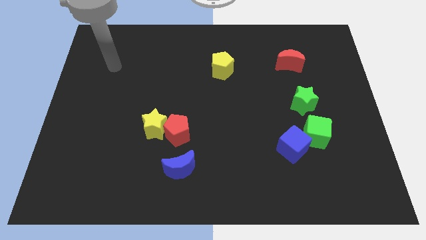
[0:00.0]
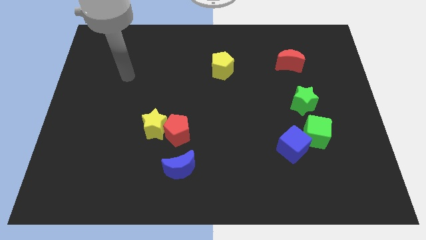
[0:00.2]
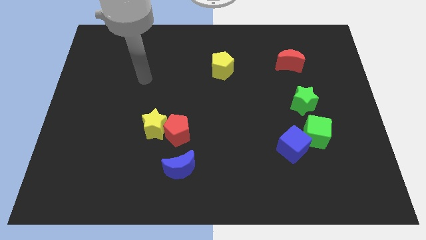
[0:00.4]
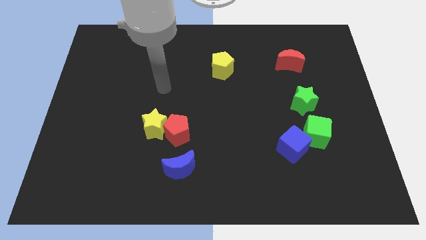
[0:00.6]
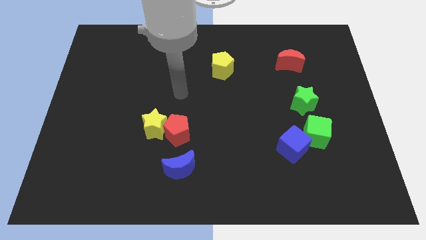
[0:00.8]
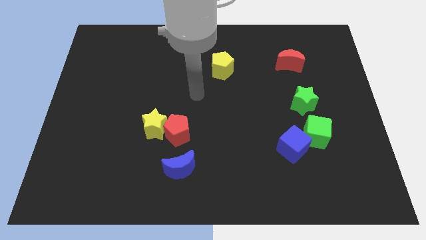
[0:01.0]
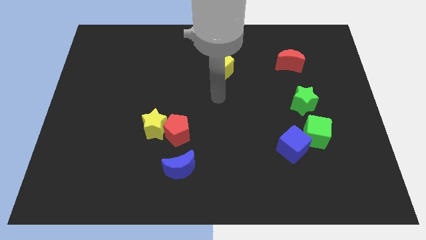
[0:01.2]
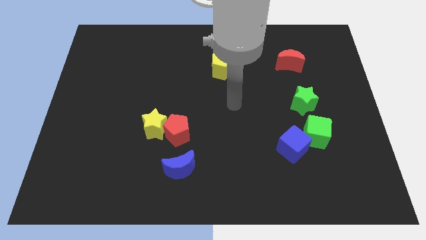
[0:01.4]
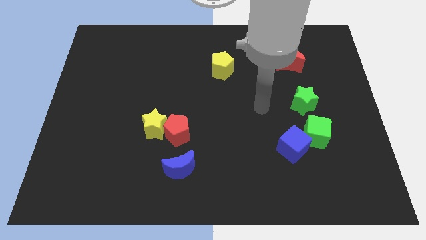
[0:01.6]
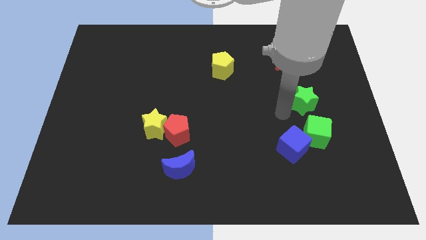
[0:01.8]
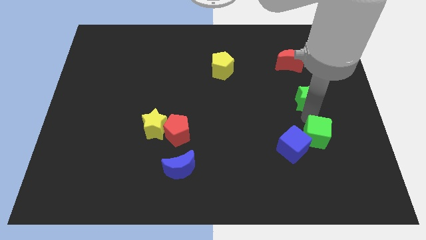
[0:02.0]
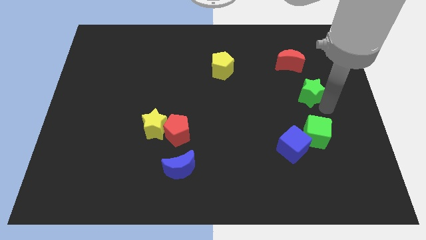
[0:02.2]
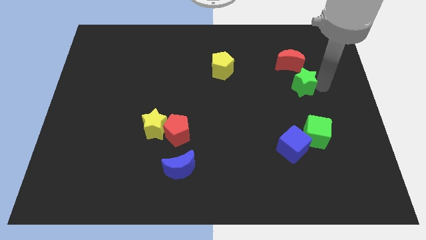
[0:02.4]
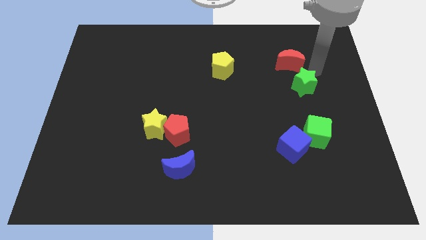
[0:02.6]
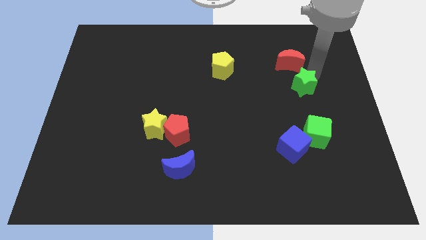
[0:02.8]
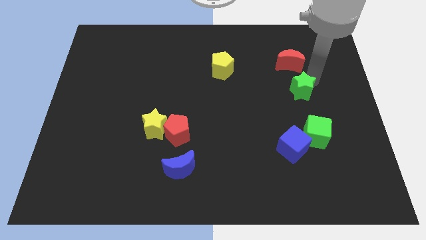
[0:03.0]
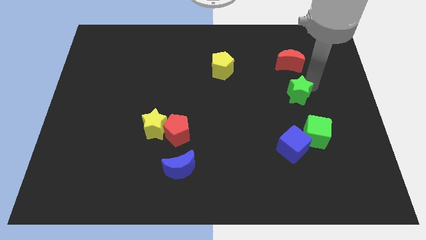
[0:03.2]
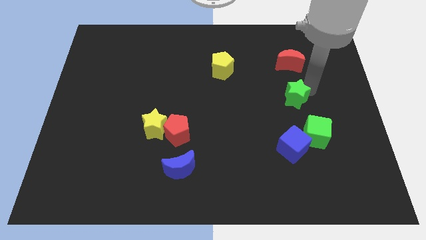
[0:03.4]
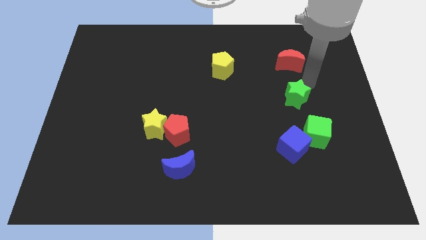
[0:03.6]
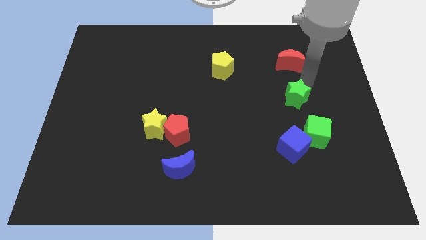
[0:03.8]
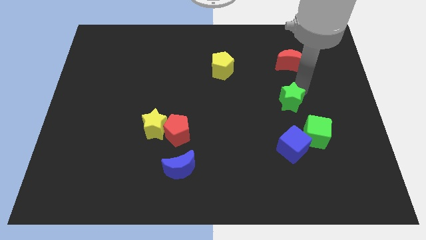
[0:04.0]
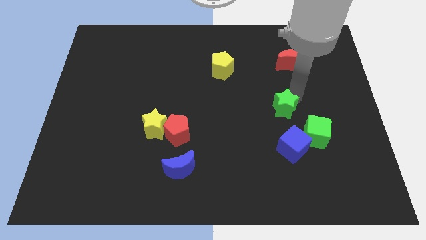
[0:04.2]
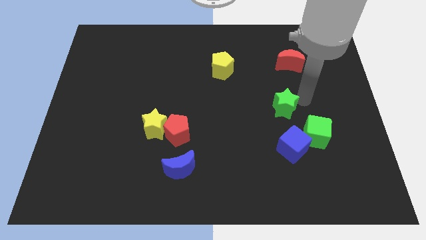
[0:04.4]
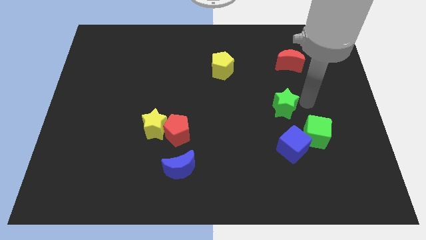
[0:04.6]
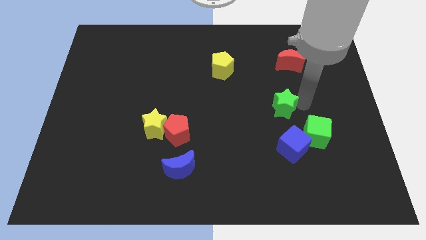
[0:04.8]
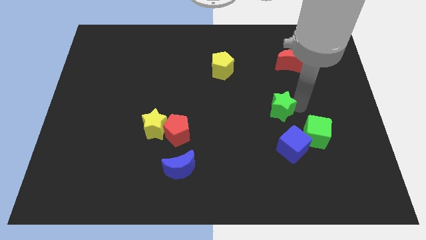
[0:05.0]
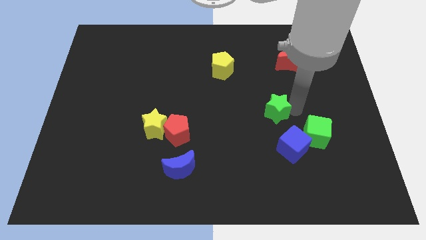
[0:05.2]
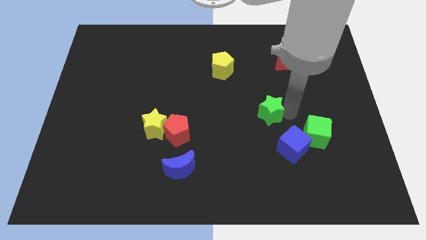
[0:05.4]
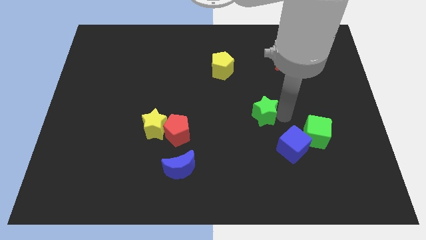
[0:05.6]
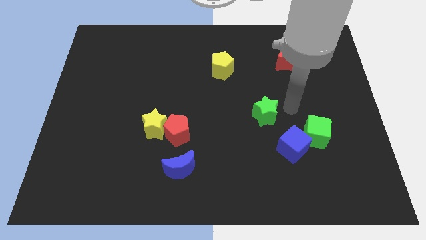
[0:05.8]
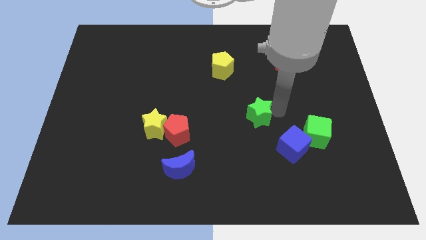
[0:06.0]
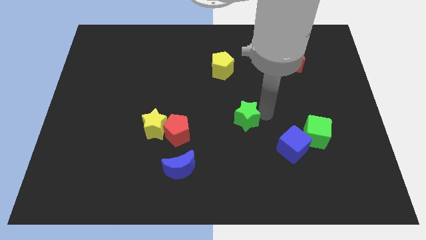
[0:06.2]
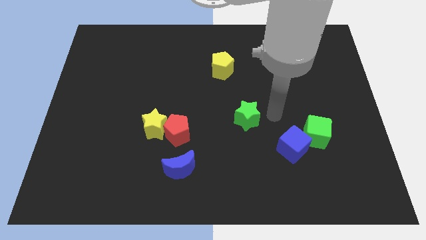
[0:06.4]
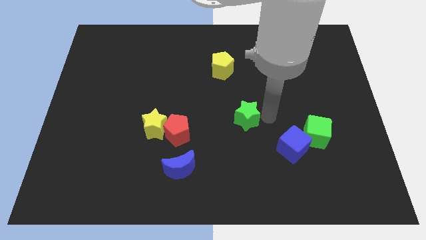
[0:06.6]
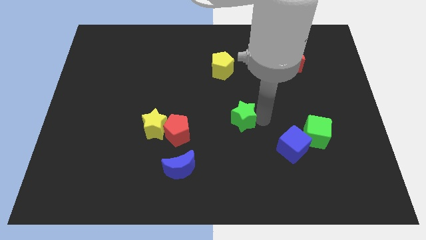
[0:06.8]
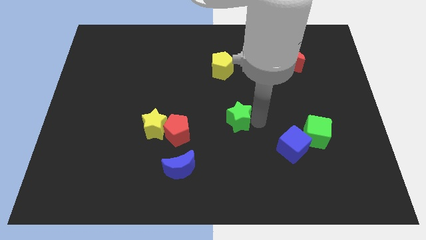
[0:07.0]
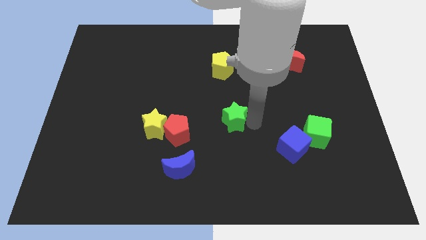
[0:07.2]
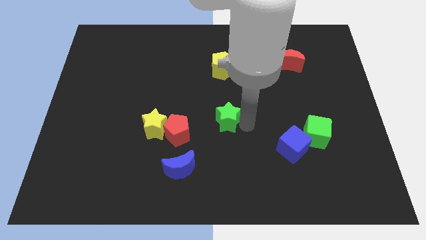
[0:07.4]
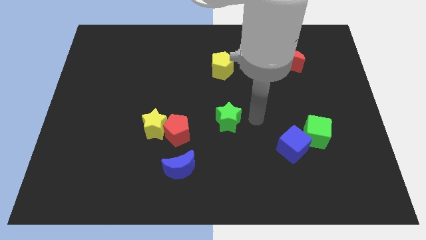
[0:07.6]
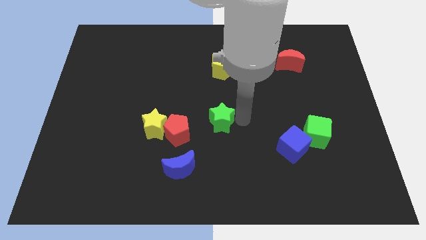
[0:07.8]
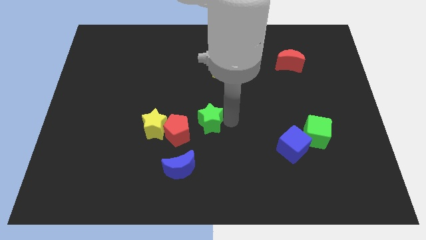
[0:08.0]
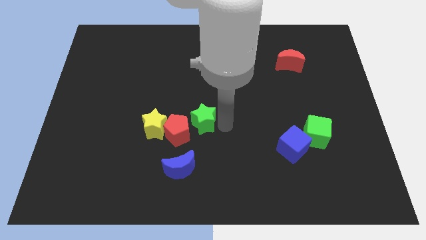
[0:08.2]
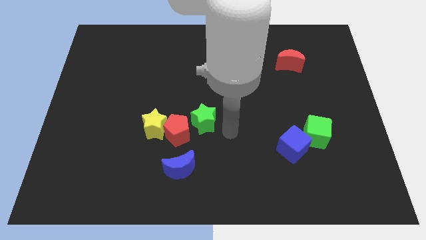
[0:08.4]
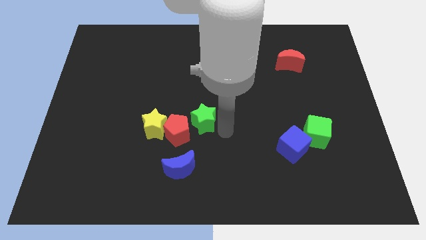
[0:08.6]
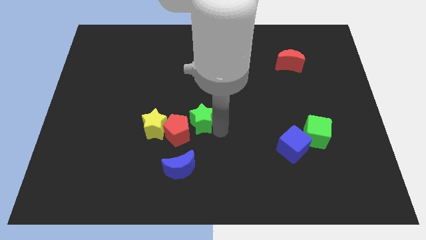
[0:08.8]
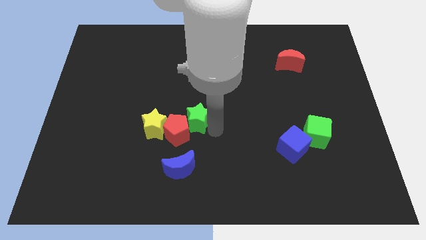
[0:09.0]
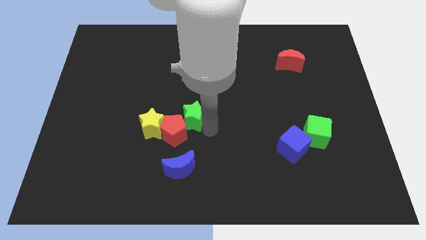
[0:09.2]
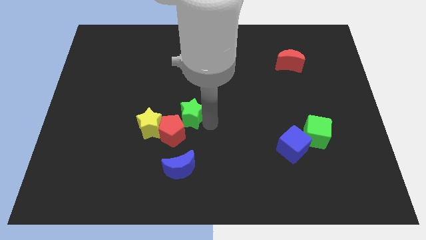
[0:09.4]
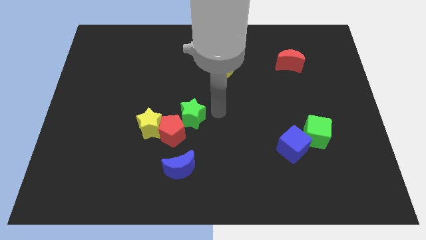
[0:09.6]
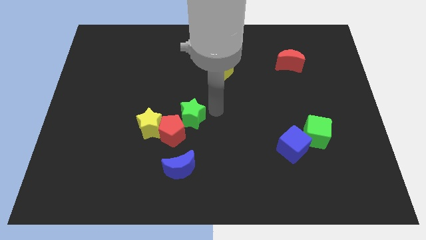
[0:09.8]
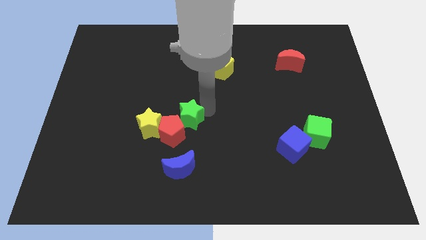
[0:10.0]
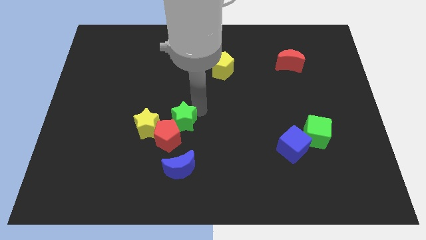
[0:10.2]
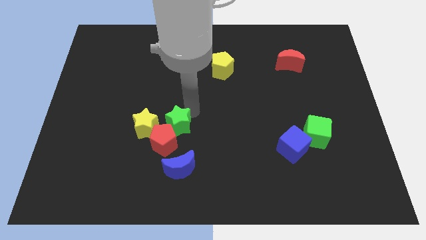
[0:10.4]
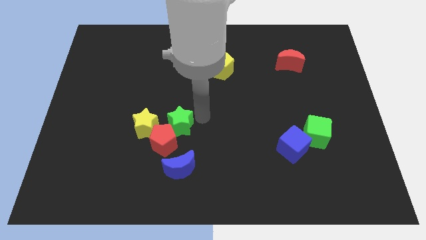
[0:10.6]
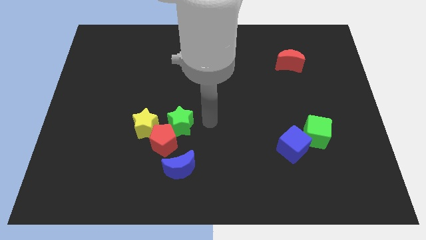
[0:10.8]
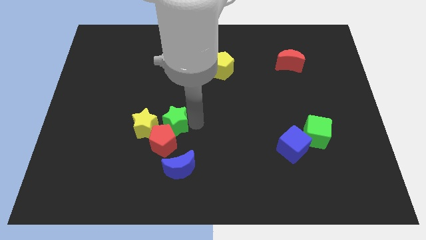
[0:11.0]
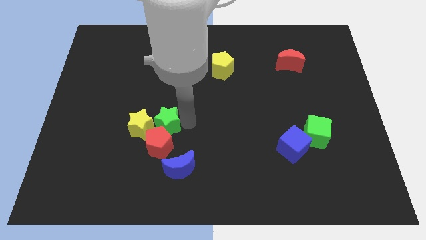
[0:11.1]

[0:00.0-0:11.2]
move the green star next to the yellow star
